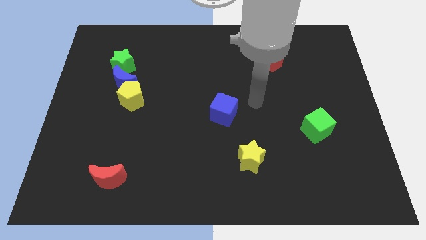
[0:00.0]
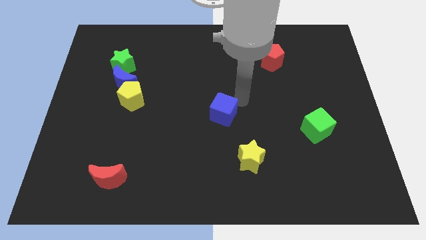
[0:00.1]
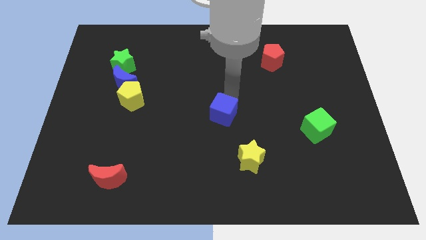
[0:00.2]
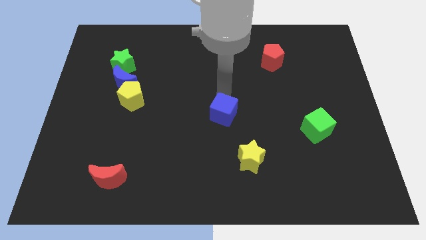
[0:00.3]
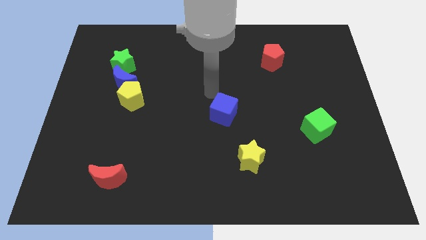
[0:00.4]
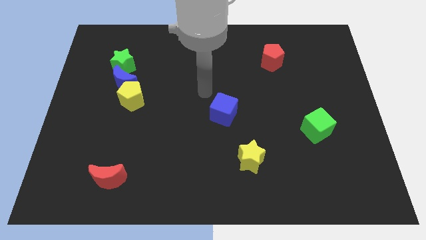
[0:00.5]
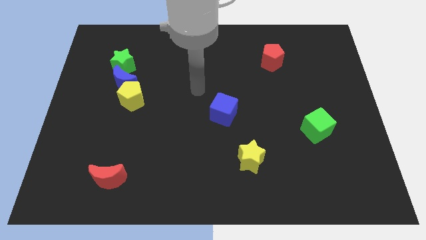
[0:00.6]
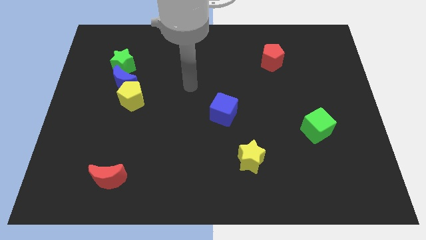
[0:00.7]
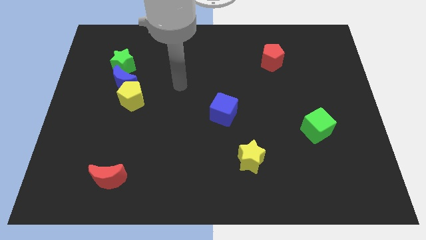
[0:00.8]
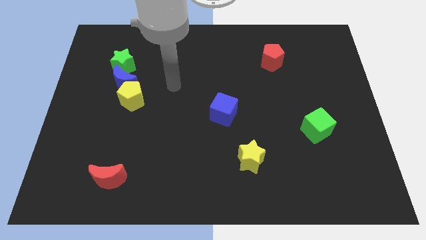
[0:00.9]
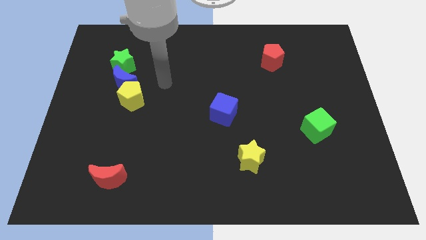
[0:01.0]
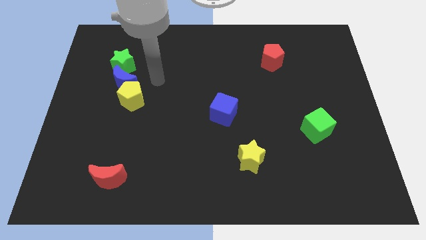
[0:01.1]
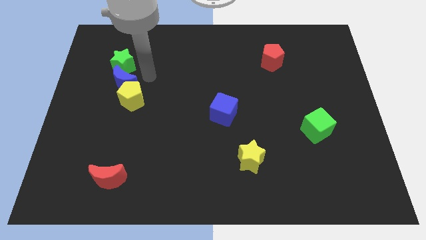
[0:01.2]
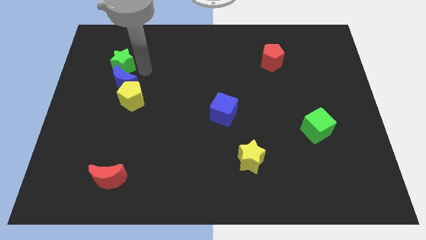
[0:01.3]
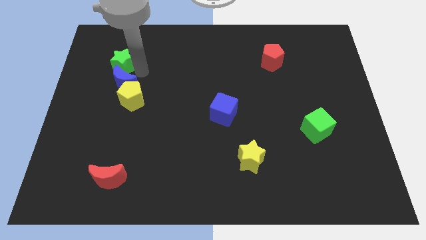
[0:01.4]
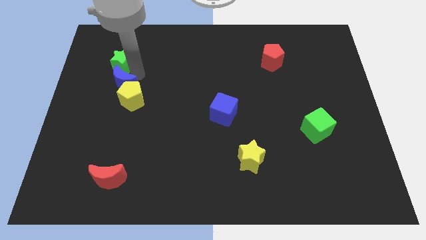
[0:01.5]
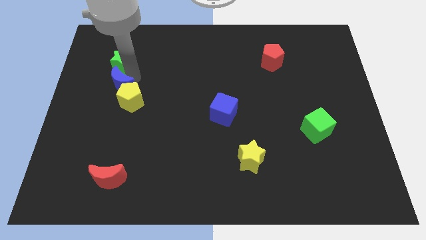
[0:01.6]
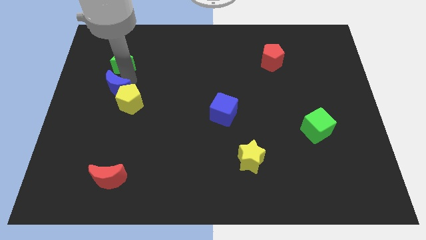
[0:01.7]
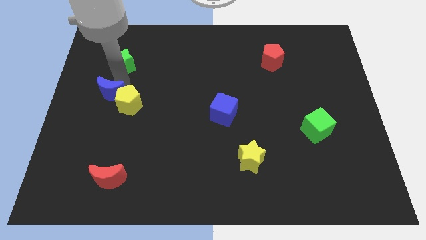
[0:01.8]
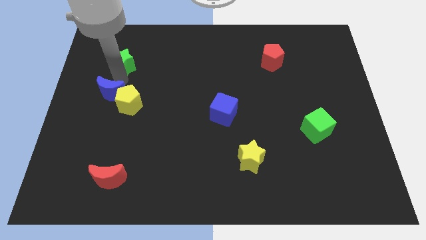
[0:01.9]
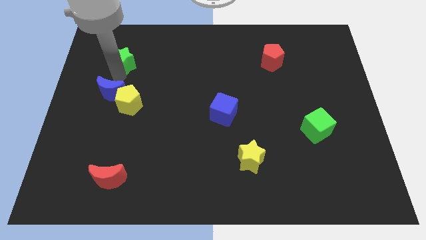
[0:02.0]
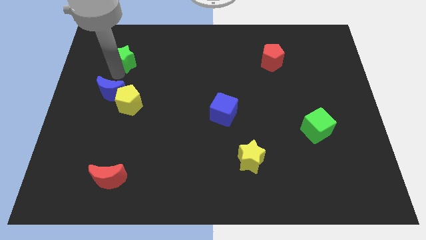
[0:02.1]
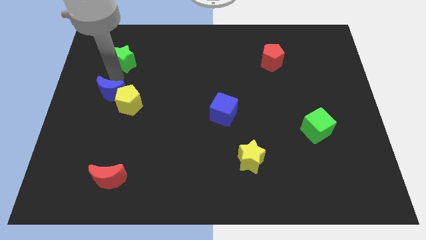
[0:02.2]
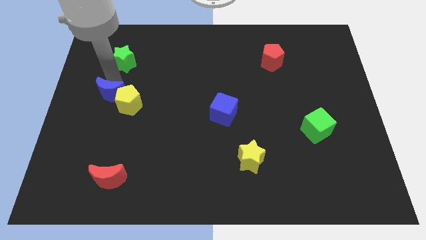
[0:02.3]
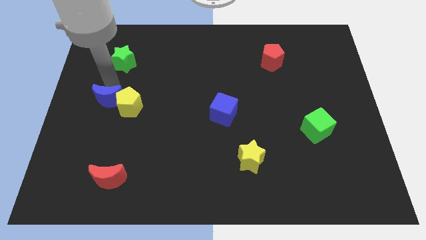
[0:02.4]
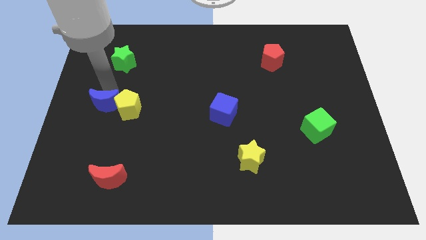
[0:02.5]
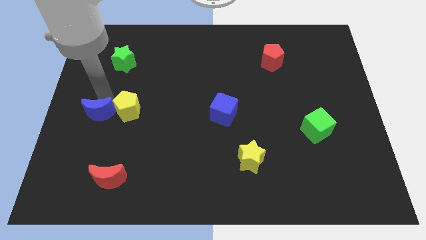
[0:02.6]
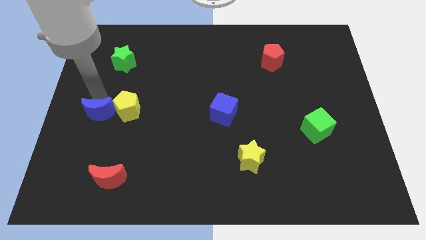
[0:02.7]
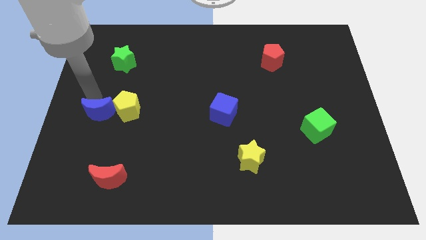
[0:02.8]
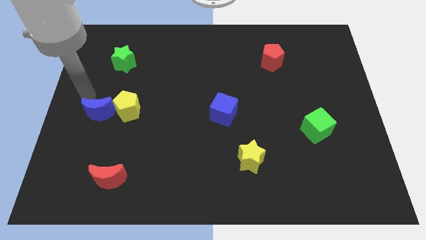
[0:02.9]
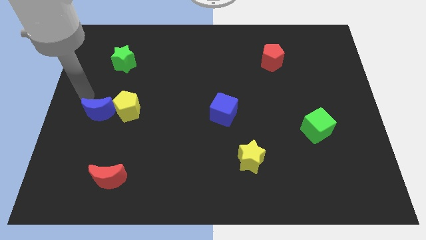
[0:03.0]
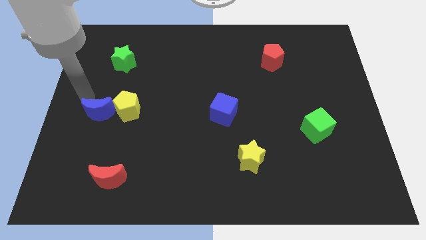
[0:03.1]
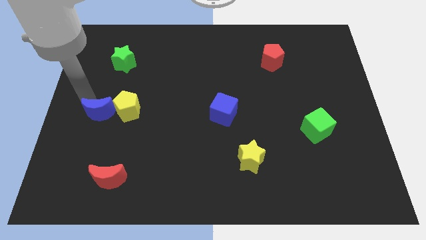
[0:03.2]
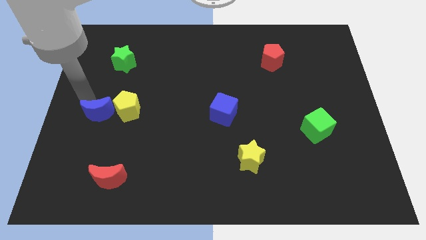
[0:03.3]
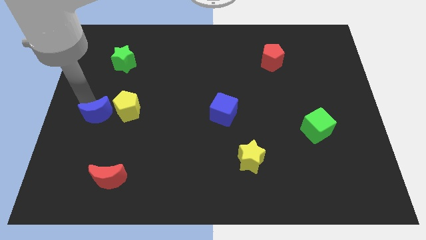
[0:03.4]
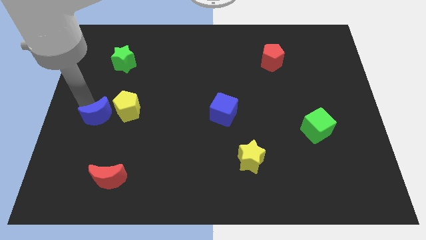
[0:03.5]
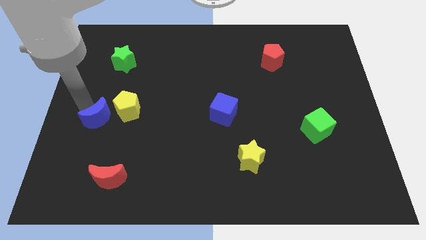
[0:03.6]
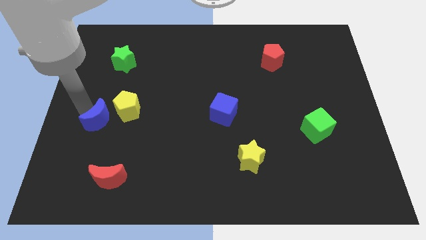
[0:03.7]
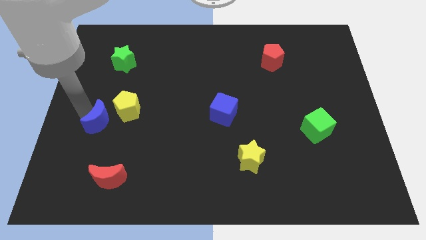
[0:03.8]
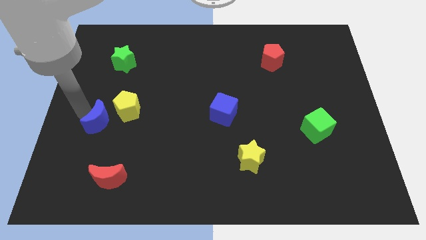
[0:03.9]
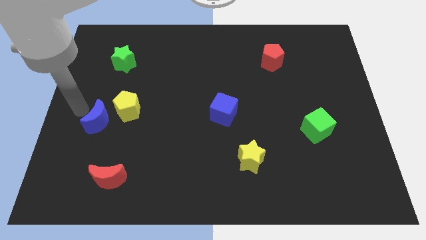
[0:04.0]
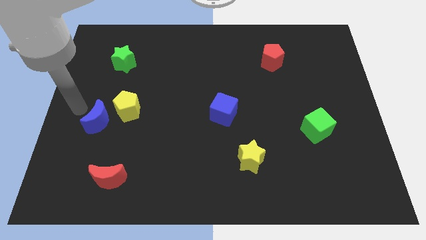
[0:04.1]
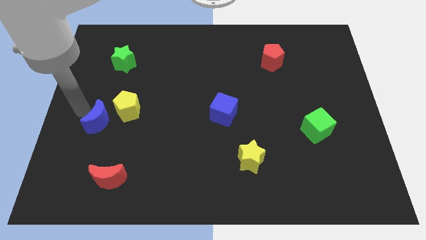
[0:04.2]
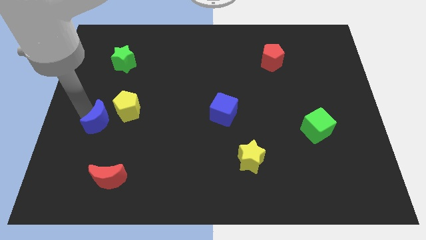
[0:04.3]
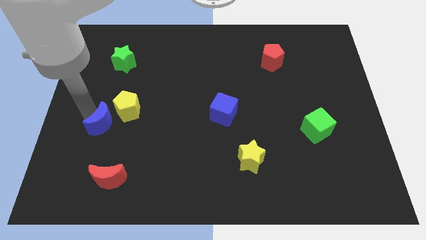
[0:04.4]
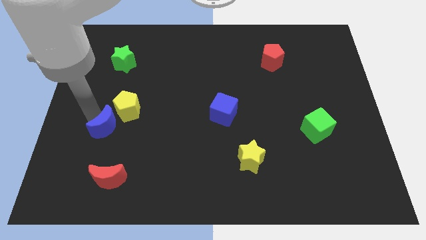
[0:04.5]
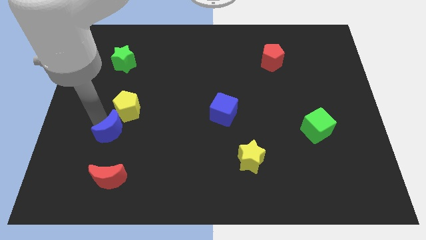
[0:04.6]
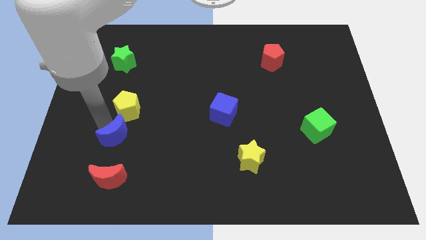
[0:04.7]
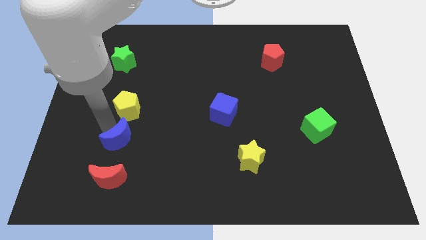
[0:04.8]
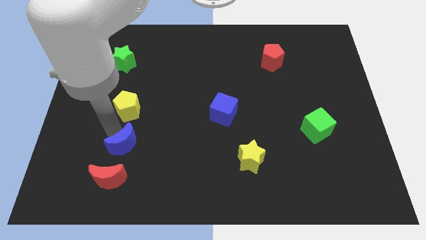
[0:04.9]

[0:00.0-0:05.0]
push the blue moon diagonally up and to the right of the red moon

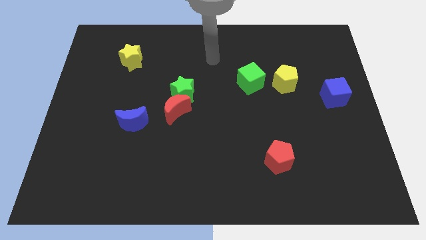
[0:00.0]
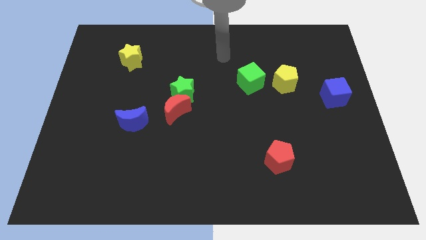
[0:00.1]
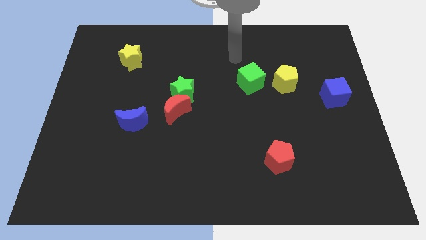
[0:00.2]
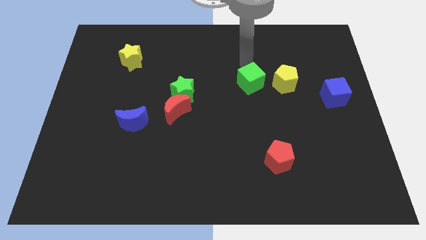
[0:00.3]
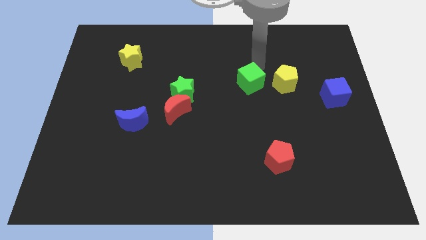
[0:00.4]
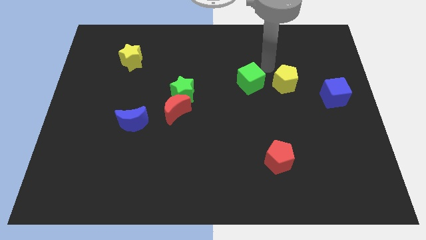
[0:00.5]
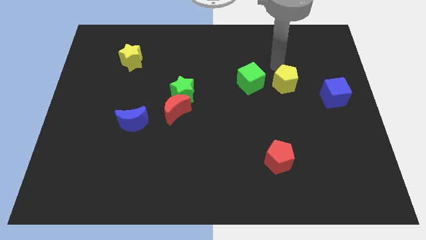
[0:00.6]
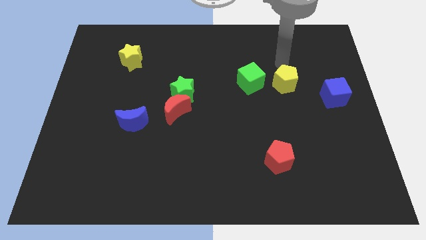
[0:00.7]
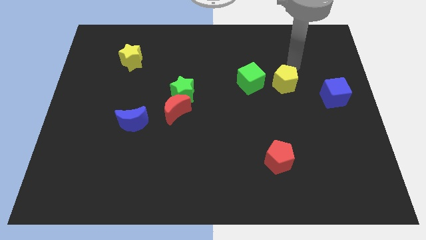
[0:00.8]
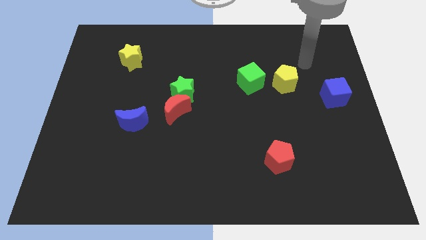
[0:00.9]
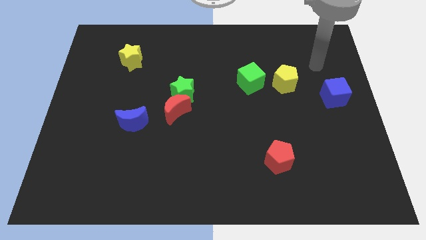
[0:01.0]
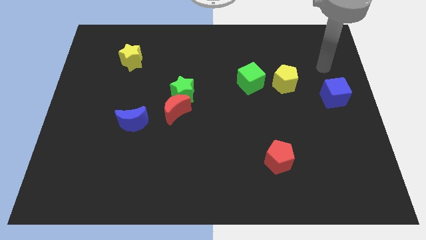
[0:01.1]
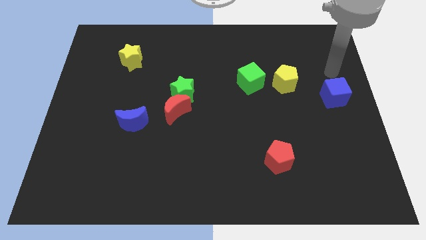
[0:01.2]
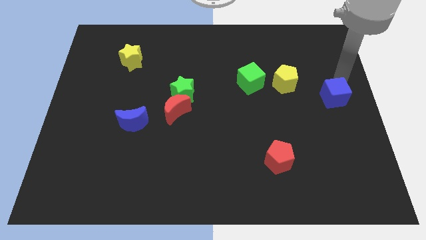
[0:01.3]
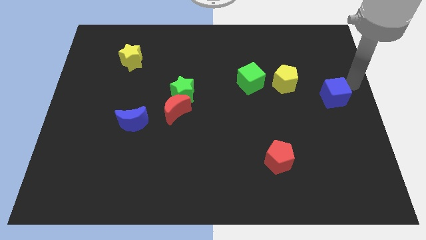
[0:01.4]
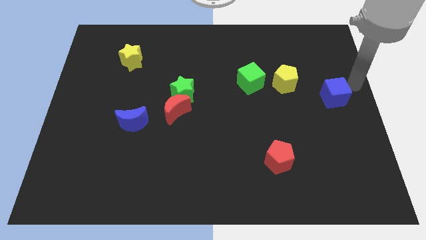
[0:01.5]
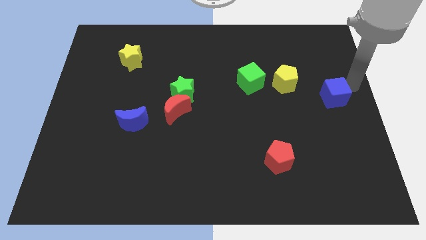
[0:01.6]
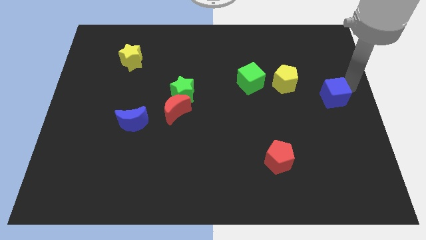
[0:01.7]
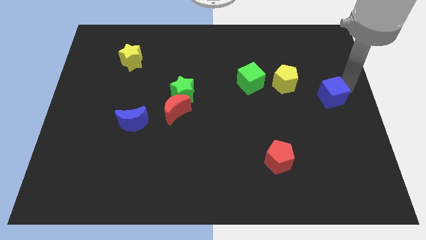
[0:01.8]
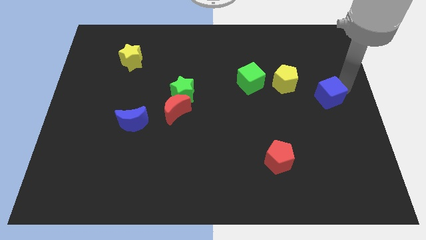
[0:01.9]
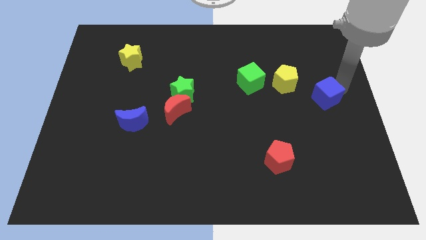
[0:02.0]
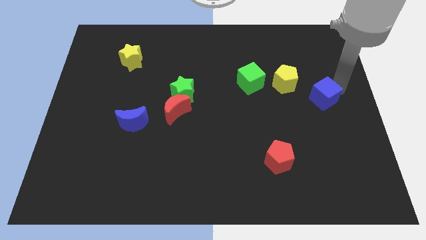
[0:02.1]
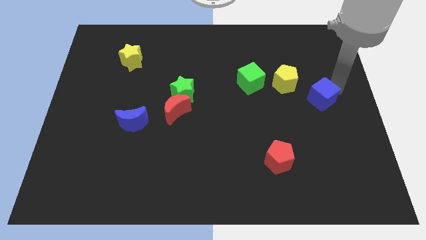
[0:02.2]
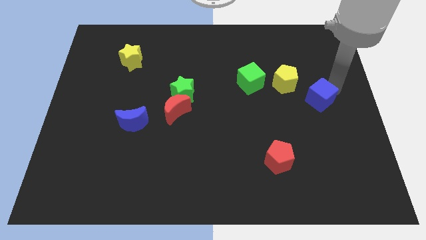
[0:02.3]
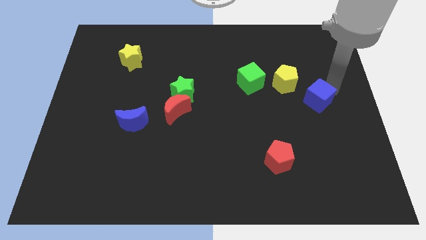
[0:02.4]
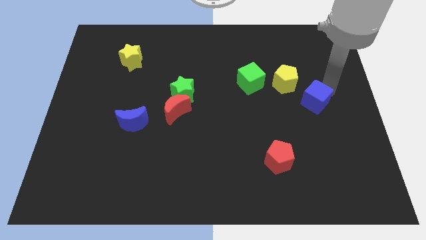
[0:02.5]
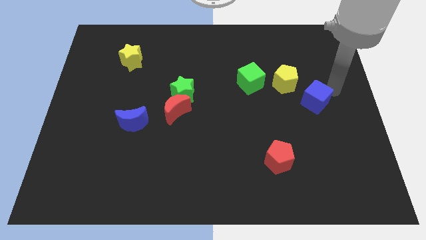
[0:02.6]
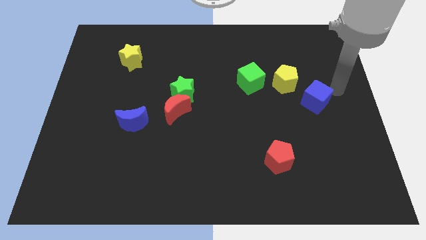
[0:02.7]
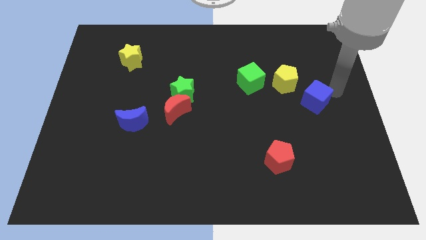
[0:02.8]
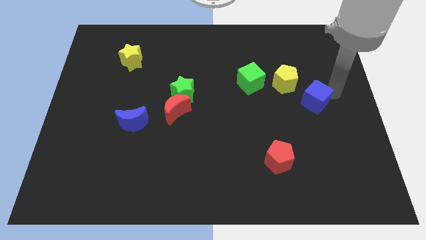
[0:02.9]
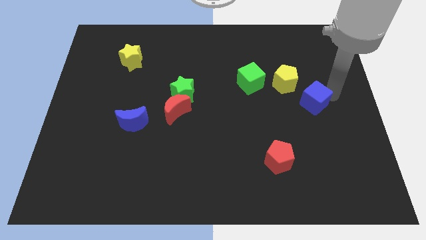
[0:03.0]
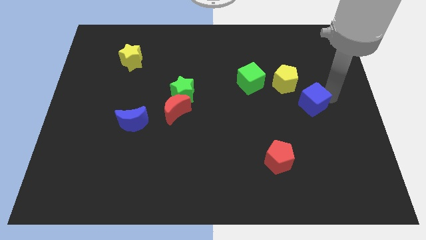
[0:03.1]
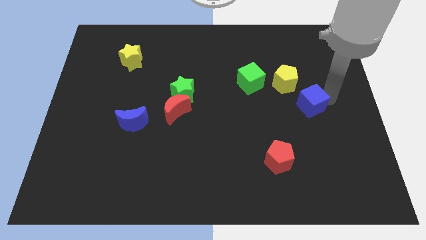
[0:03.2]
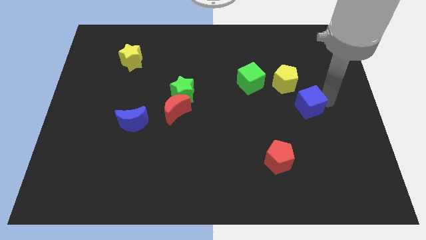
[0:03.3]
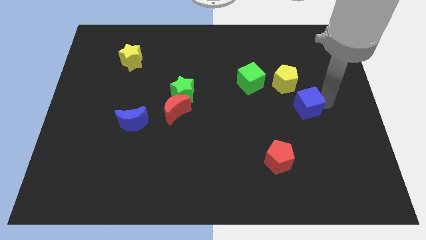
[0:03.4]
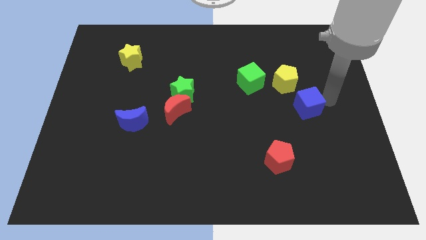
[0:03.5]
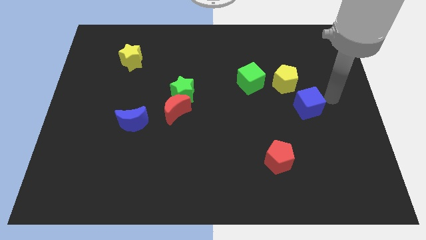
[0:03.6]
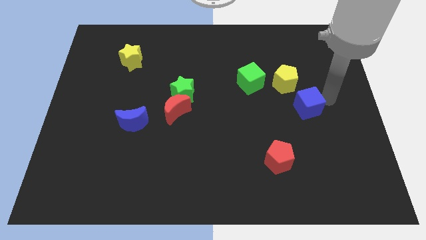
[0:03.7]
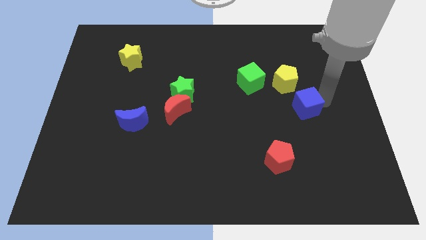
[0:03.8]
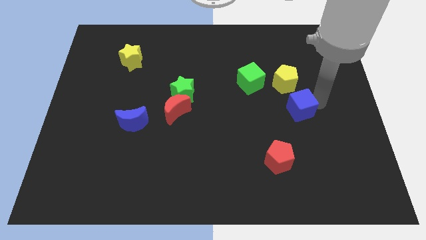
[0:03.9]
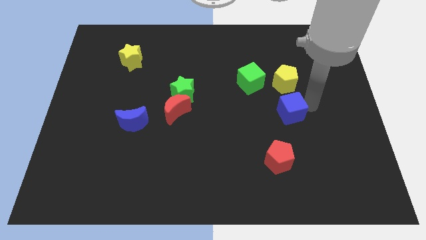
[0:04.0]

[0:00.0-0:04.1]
push the blue cube above the red pentagon
